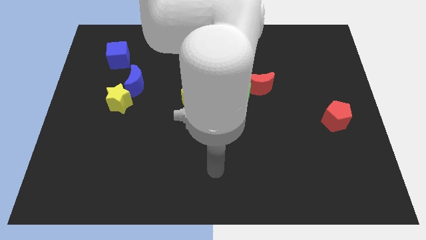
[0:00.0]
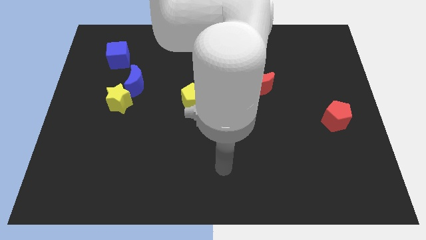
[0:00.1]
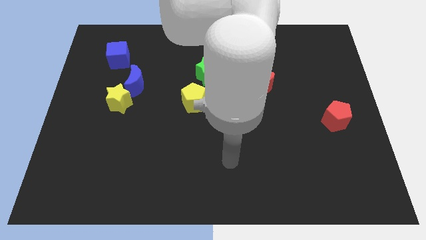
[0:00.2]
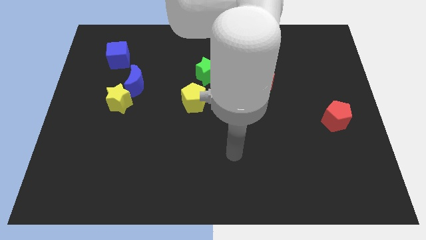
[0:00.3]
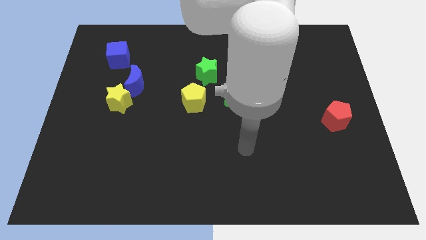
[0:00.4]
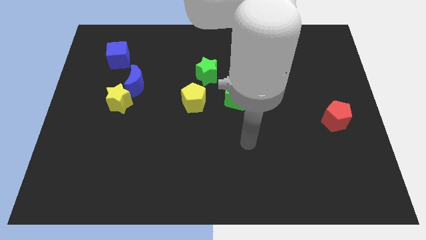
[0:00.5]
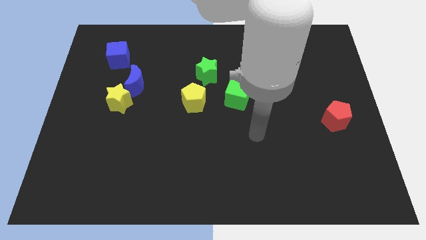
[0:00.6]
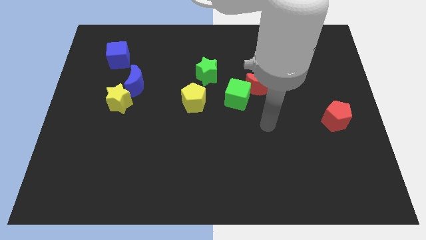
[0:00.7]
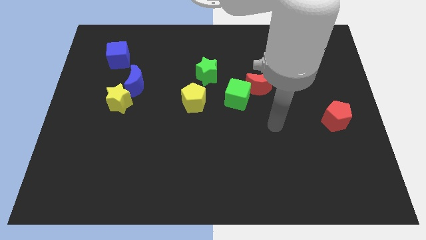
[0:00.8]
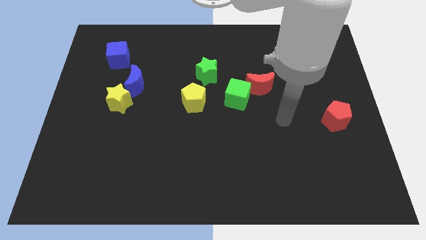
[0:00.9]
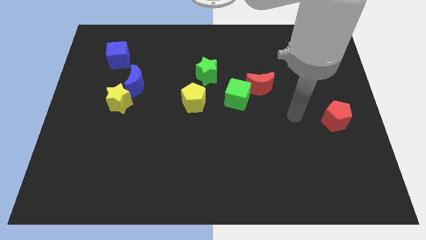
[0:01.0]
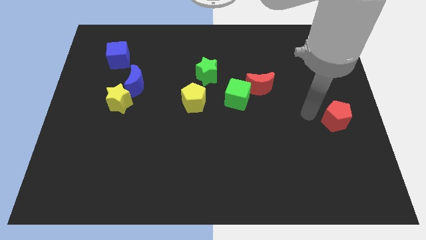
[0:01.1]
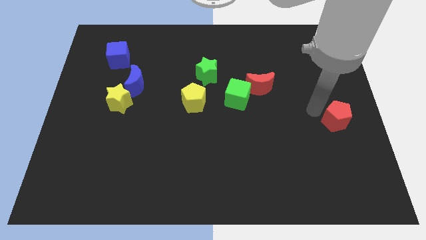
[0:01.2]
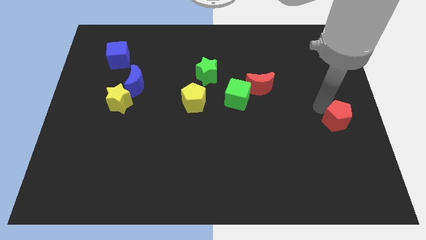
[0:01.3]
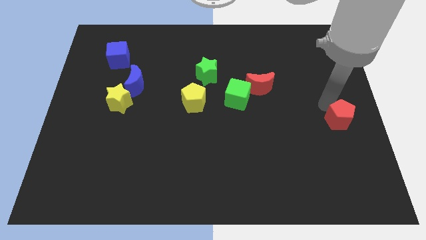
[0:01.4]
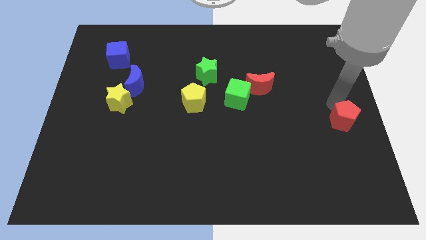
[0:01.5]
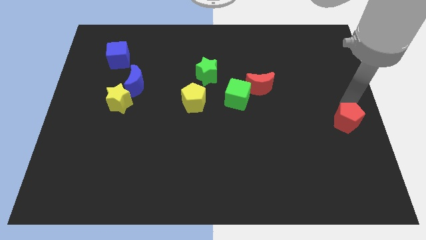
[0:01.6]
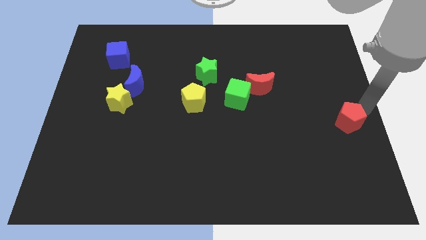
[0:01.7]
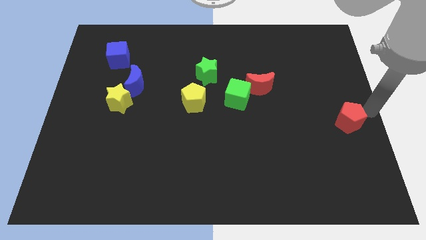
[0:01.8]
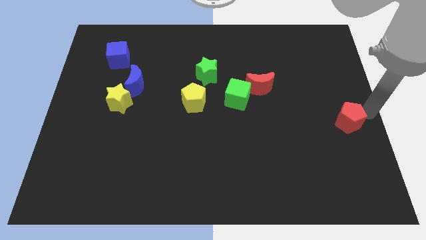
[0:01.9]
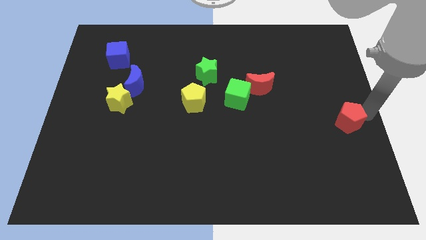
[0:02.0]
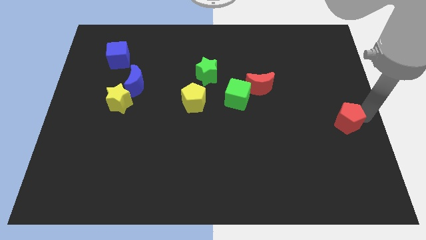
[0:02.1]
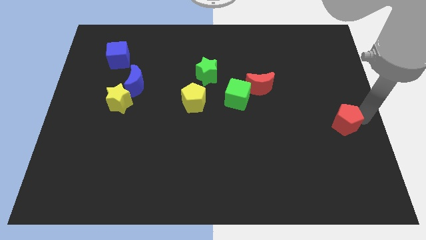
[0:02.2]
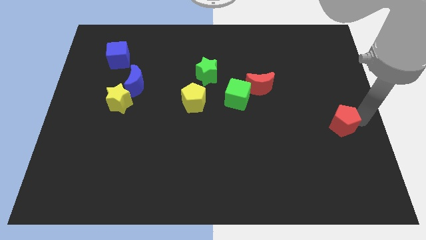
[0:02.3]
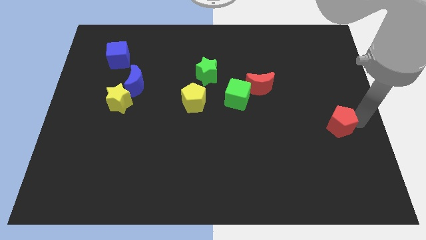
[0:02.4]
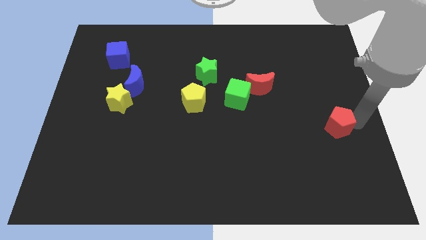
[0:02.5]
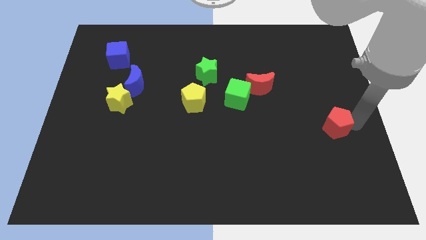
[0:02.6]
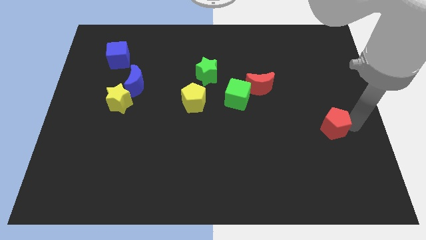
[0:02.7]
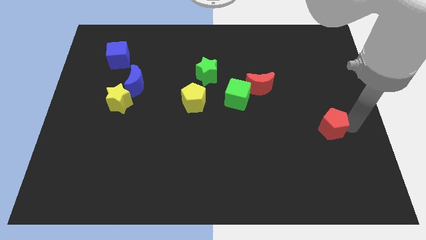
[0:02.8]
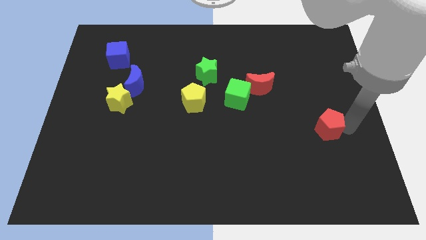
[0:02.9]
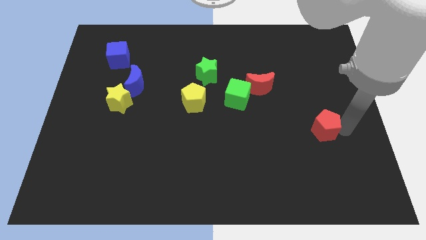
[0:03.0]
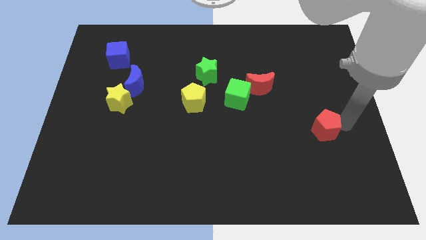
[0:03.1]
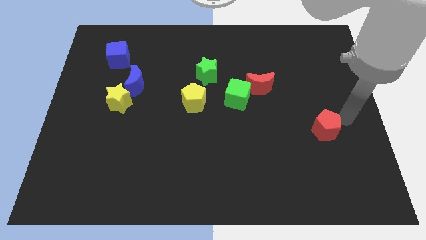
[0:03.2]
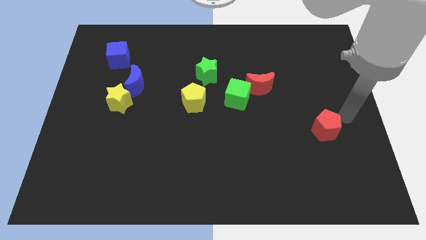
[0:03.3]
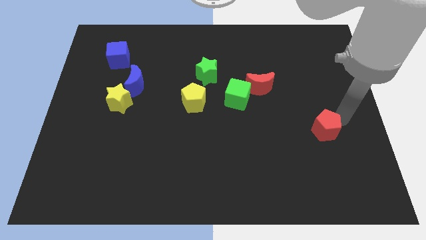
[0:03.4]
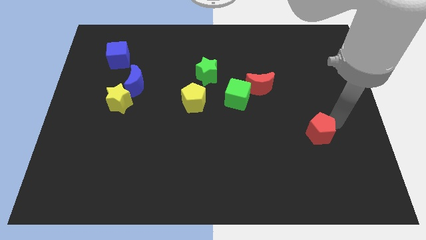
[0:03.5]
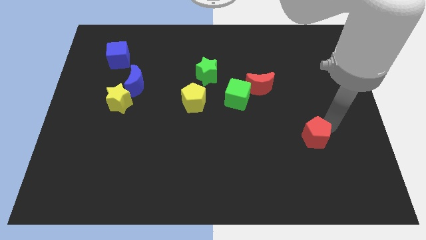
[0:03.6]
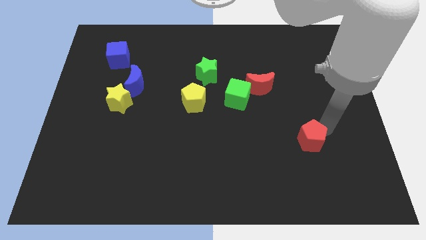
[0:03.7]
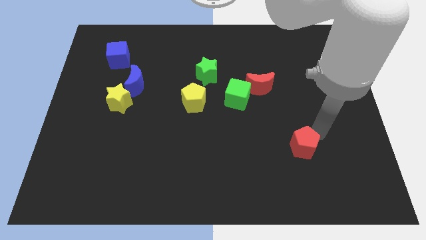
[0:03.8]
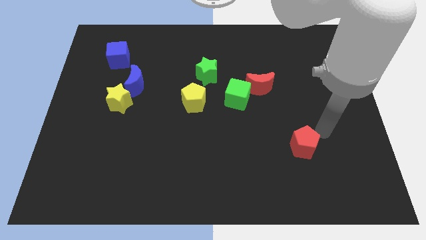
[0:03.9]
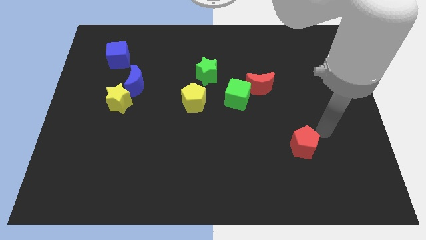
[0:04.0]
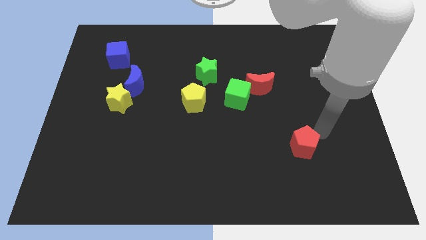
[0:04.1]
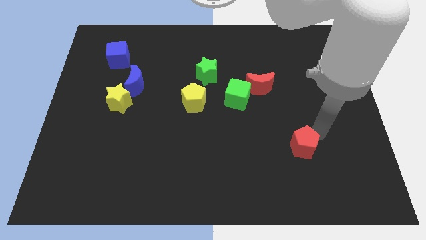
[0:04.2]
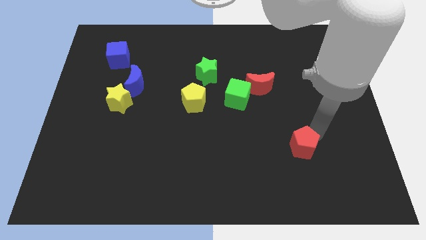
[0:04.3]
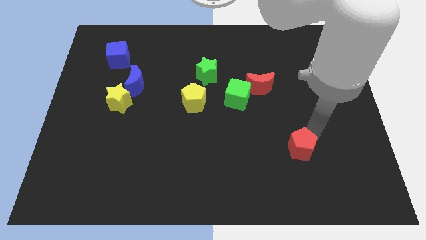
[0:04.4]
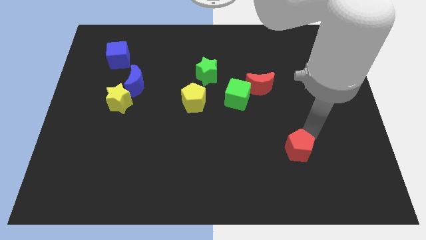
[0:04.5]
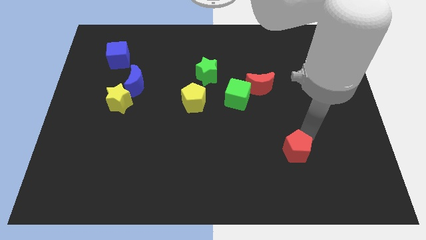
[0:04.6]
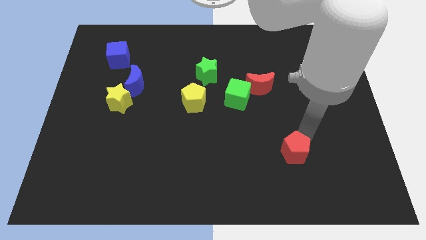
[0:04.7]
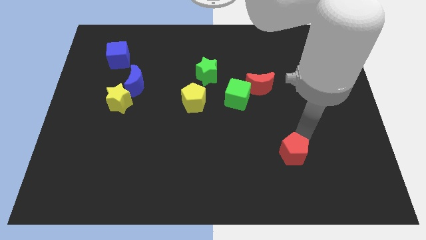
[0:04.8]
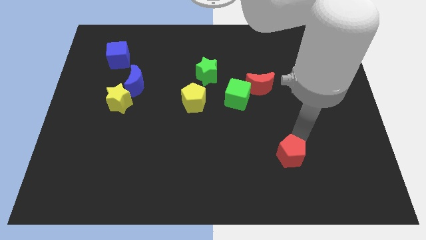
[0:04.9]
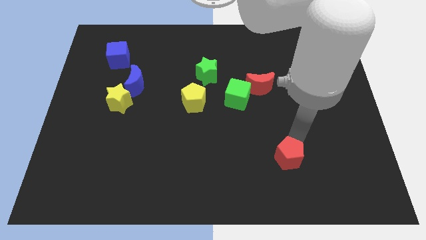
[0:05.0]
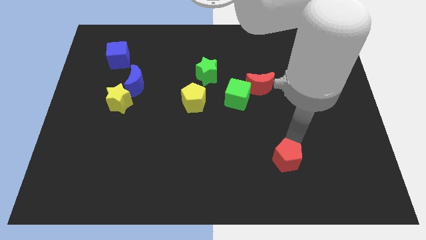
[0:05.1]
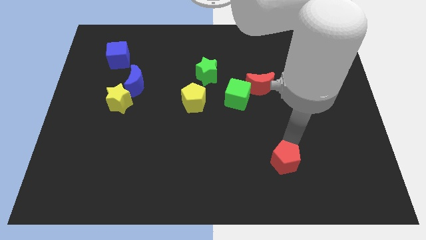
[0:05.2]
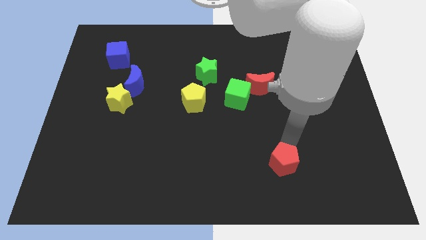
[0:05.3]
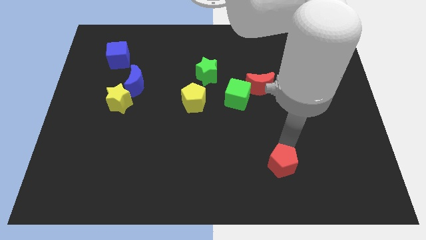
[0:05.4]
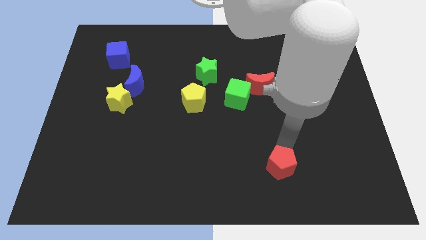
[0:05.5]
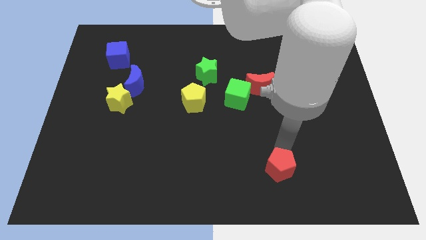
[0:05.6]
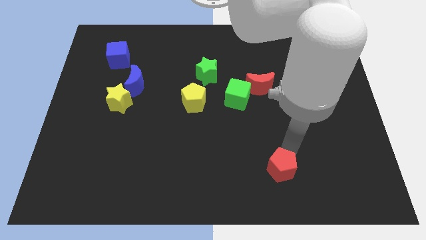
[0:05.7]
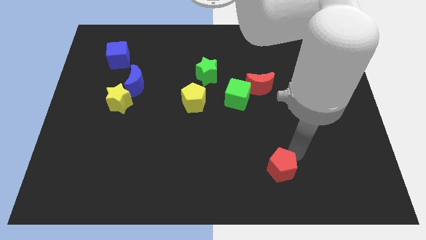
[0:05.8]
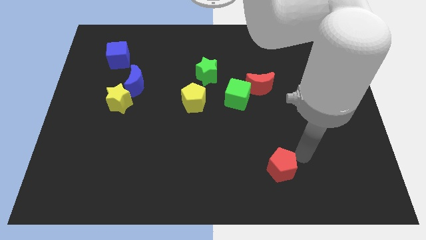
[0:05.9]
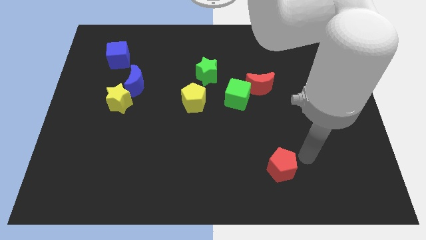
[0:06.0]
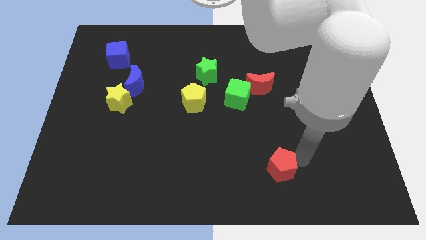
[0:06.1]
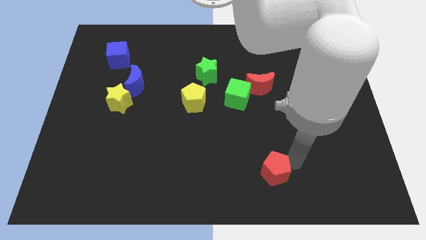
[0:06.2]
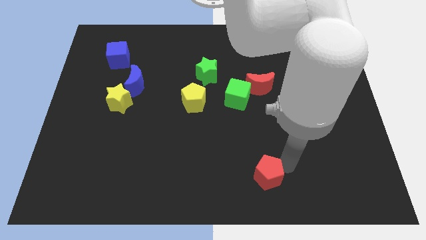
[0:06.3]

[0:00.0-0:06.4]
move the red pentagon to the bottom side
